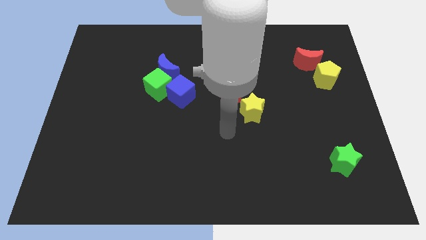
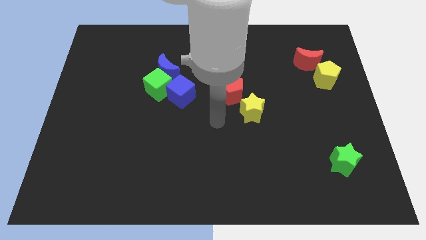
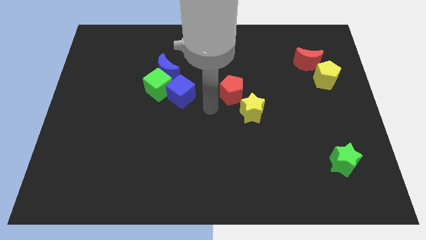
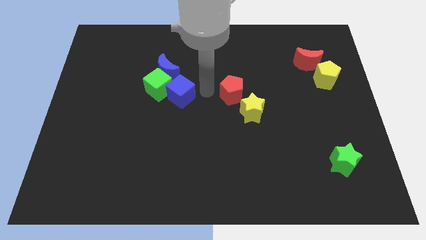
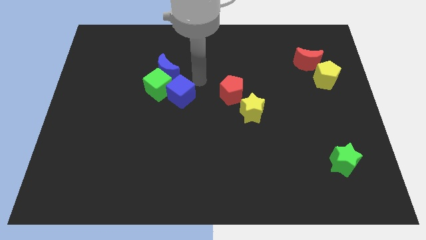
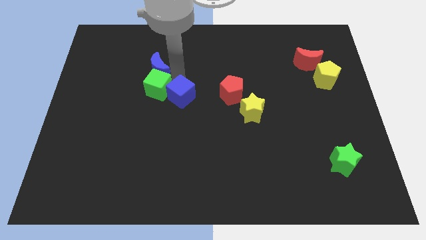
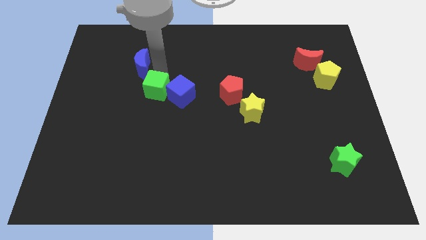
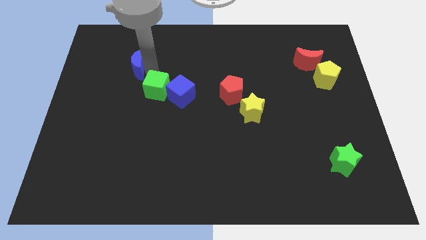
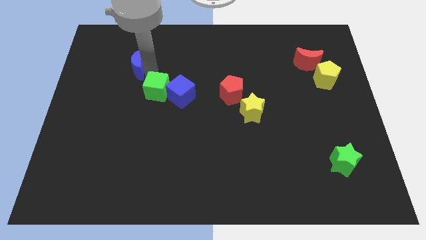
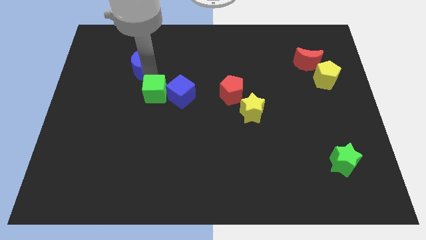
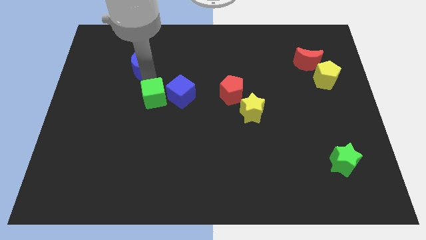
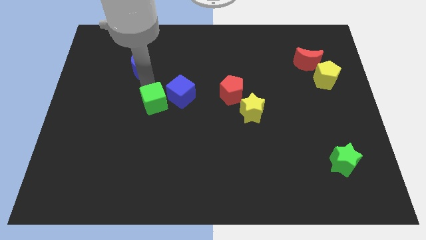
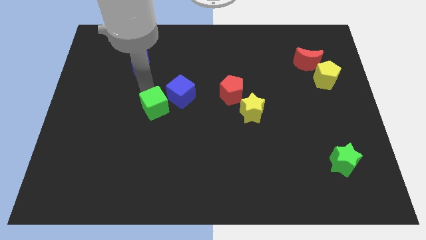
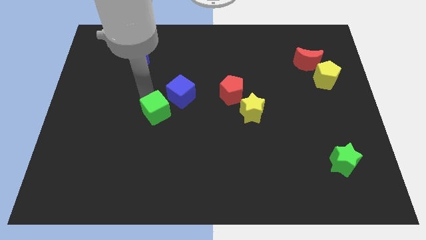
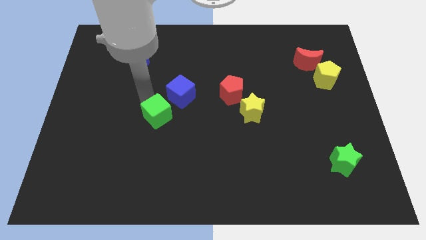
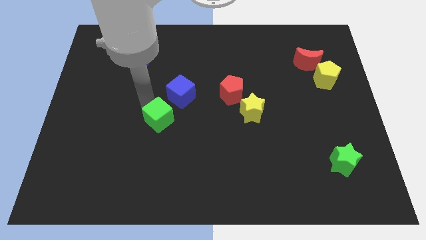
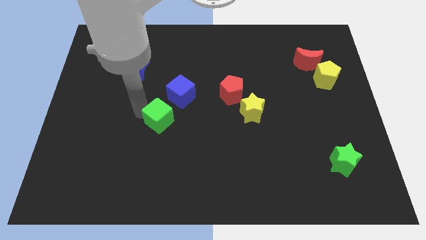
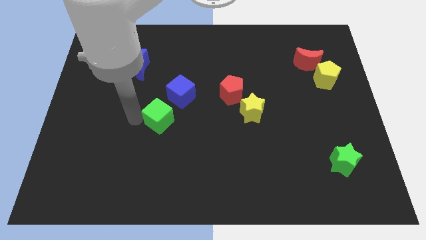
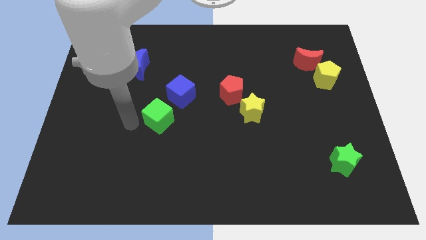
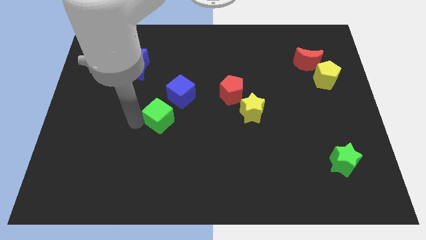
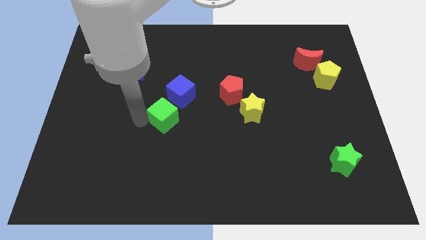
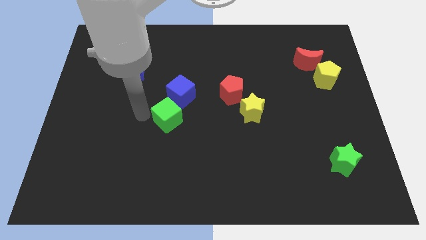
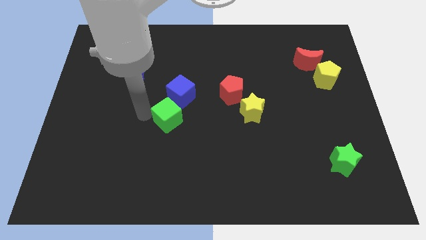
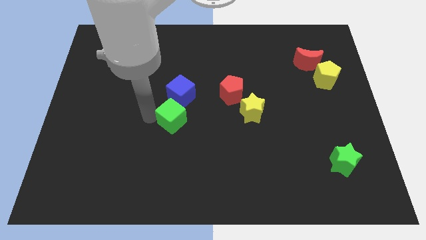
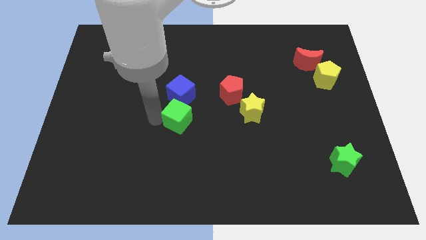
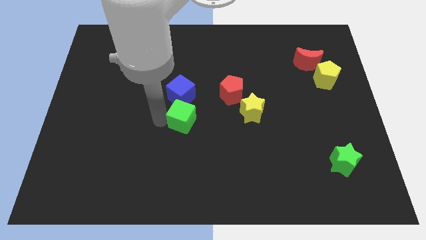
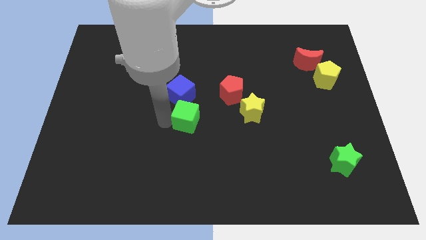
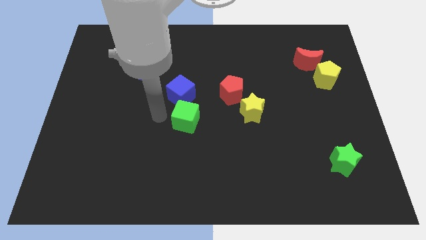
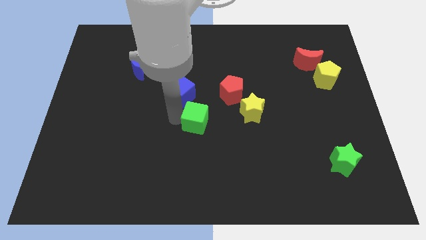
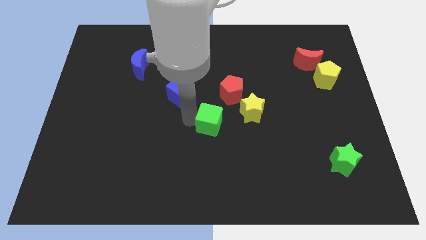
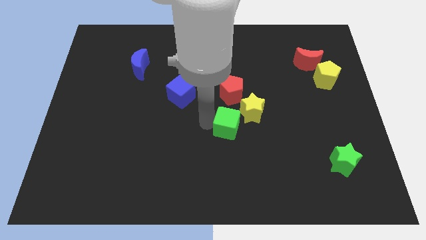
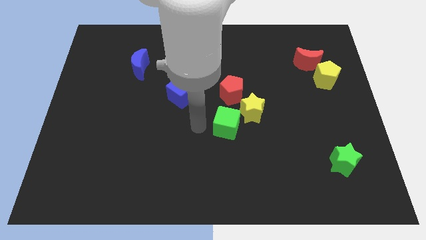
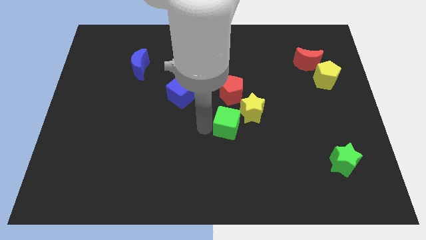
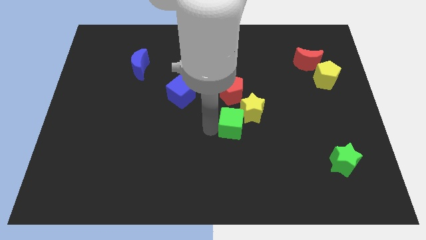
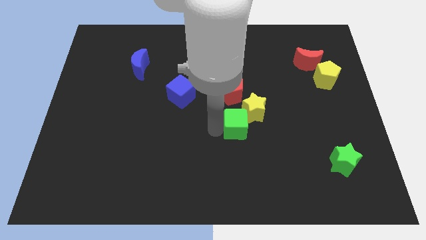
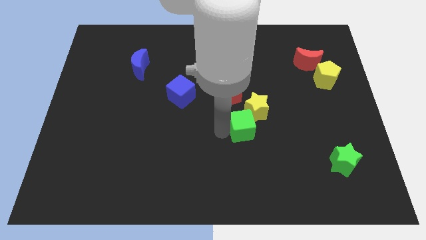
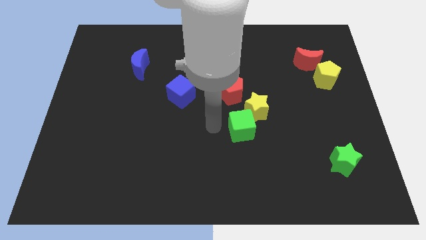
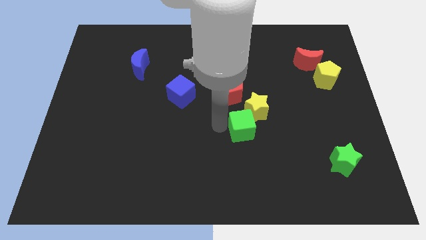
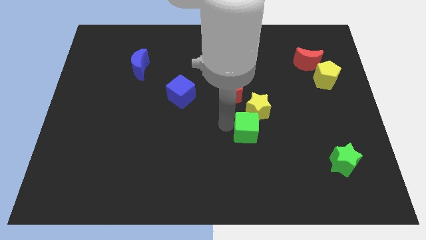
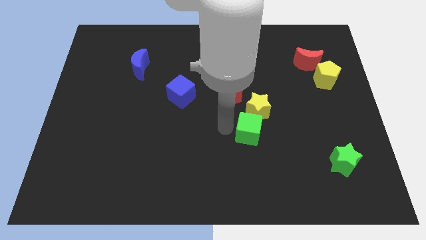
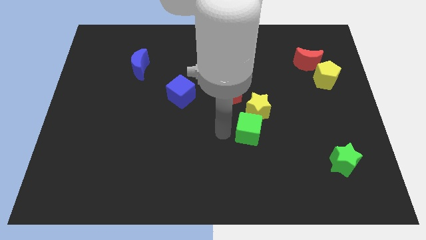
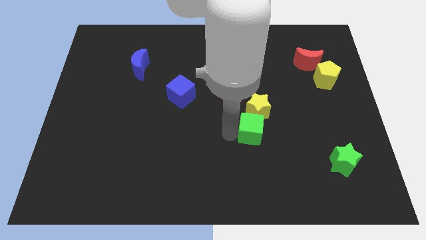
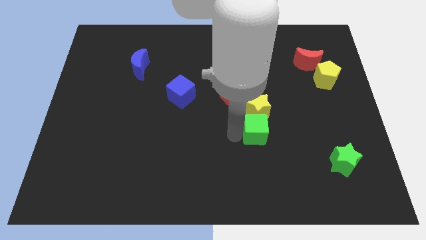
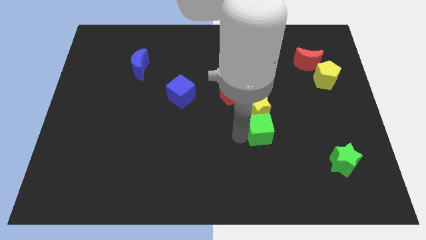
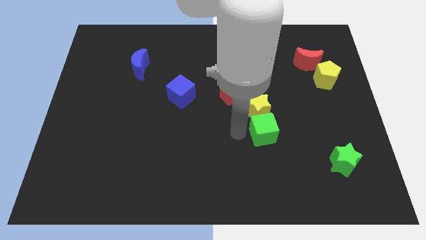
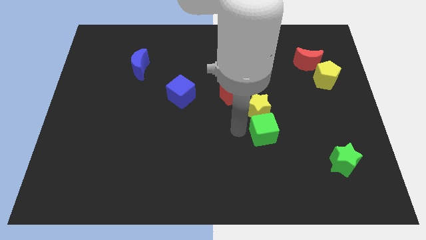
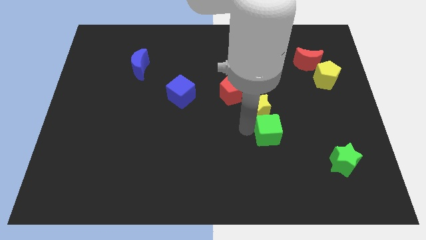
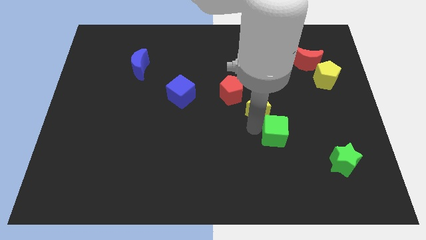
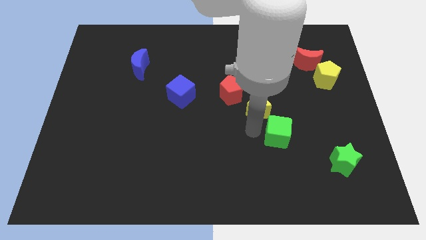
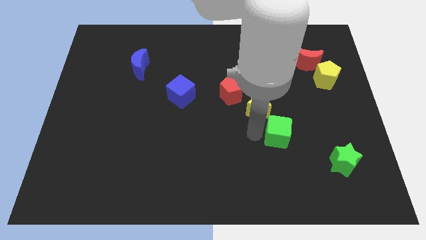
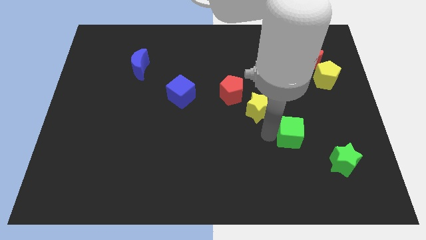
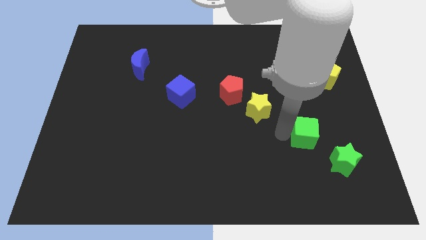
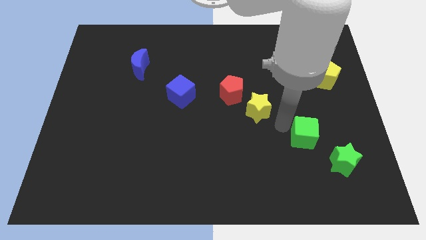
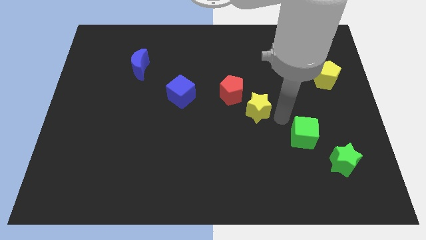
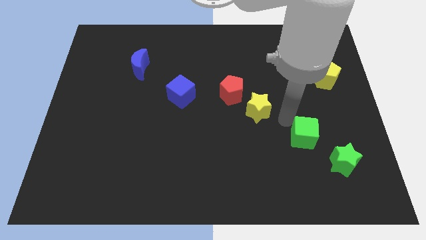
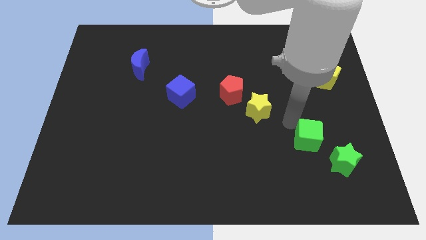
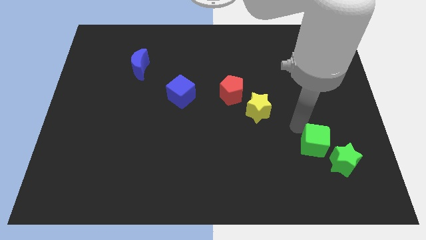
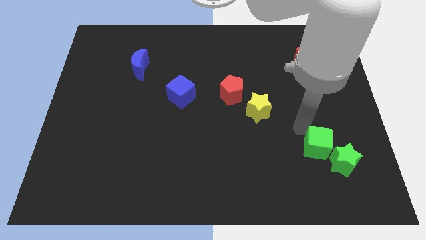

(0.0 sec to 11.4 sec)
move the green cube close to the green star

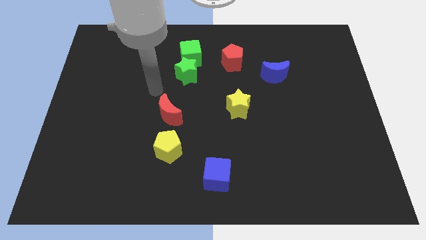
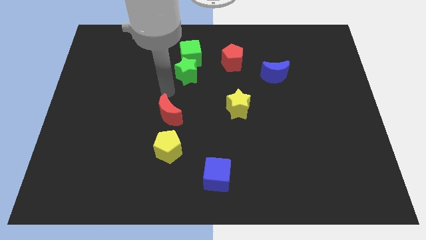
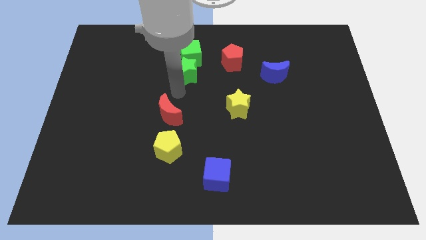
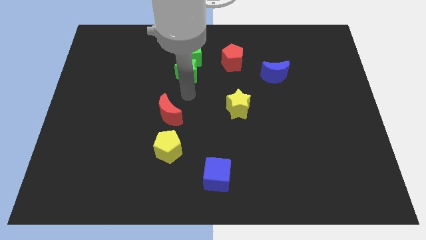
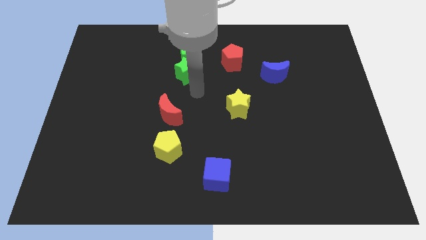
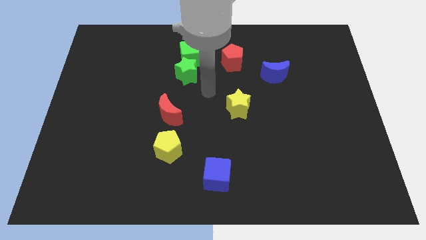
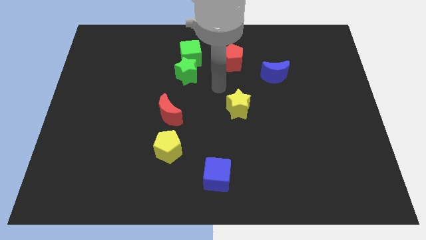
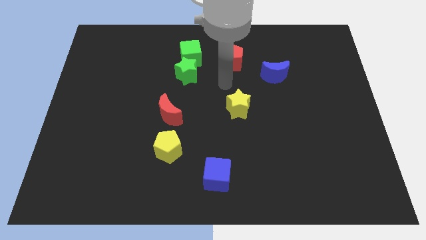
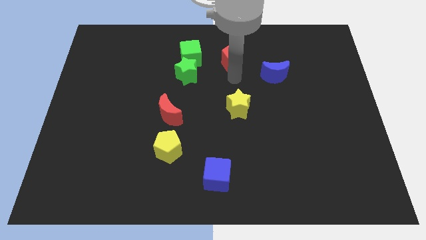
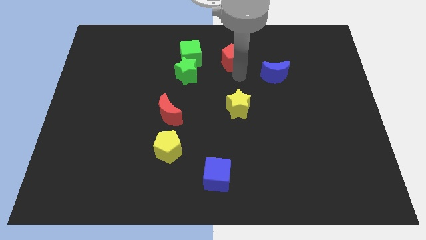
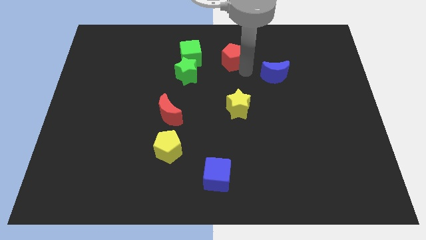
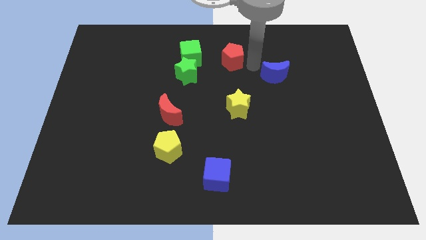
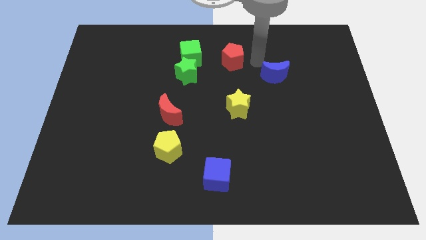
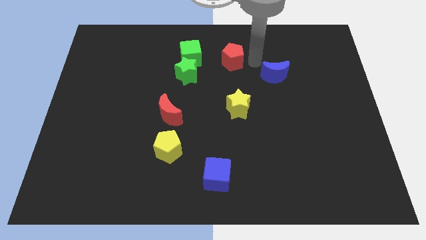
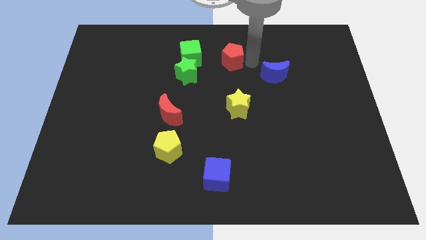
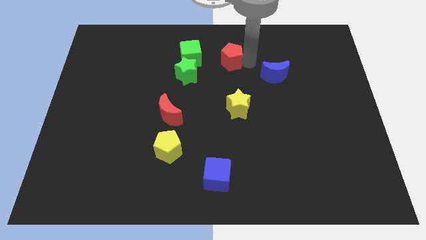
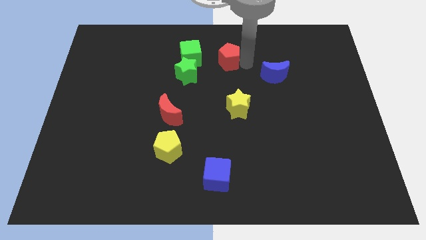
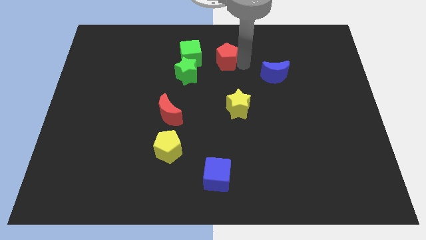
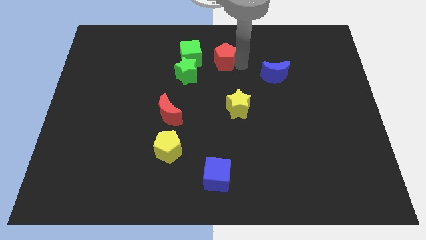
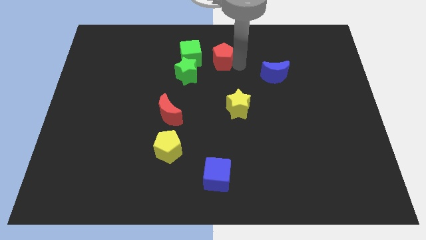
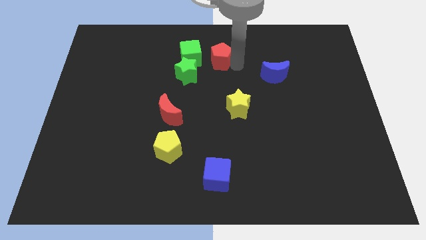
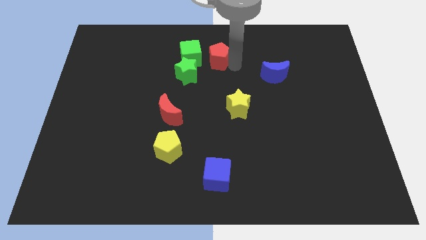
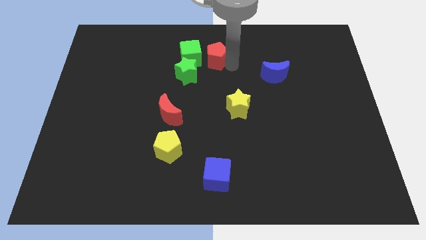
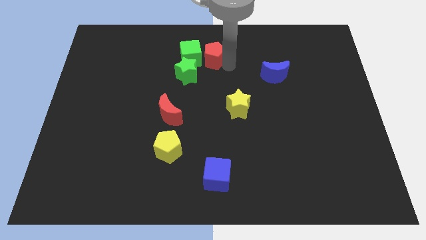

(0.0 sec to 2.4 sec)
slide the red pentagon close to the green cube
